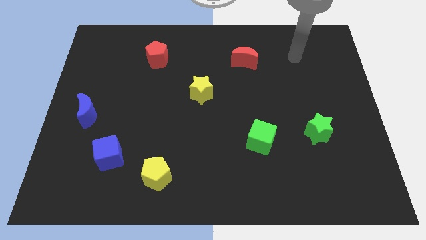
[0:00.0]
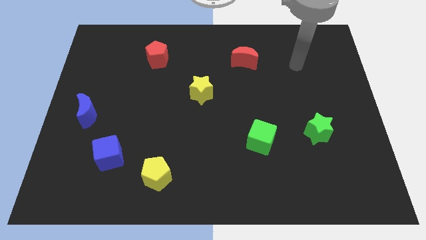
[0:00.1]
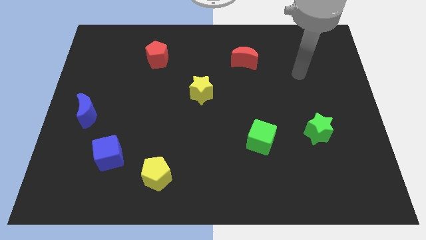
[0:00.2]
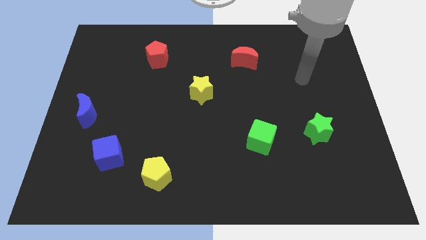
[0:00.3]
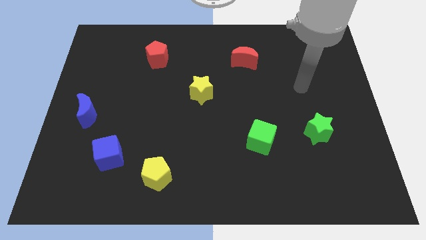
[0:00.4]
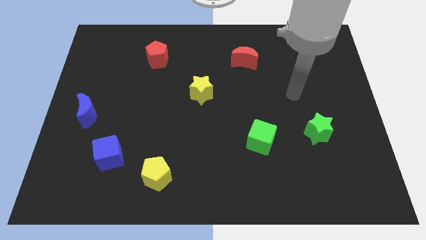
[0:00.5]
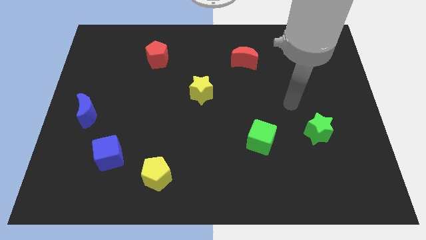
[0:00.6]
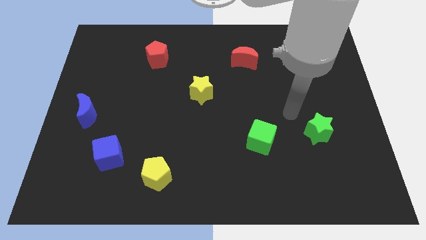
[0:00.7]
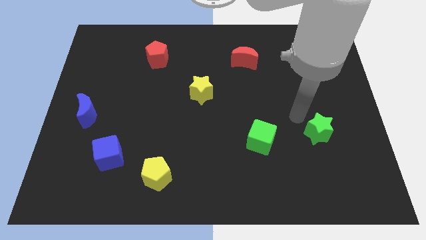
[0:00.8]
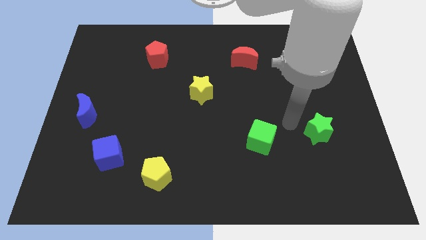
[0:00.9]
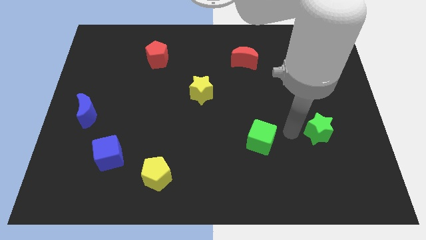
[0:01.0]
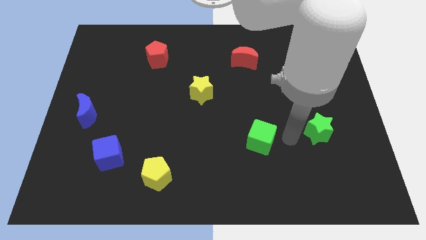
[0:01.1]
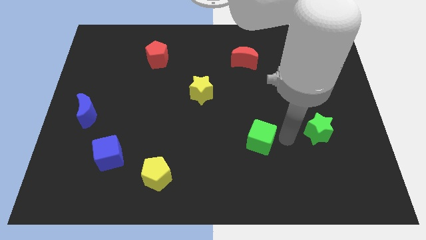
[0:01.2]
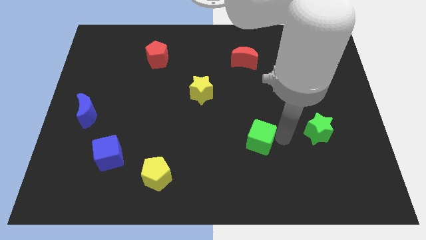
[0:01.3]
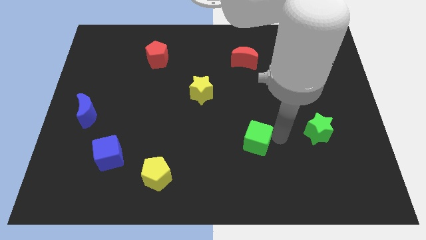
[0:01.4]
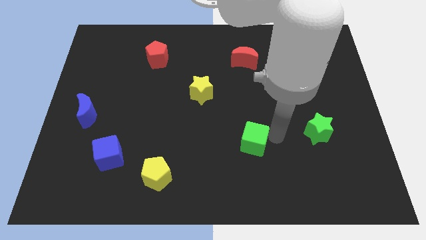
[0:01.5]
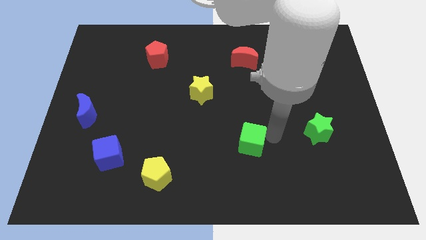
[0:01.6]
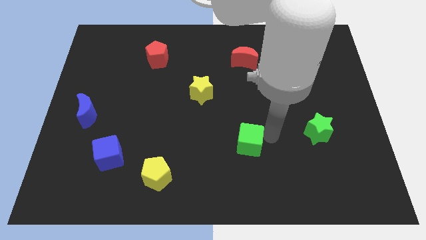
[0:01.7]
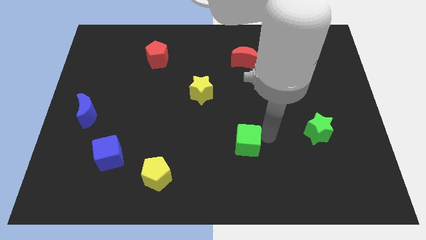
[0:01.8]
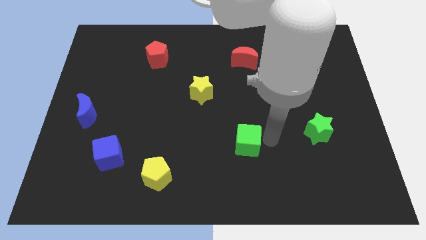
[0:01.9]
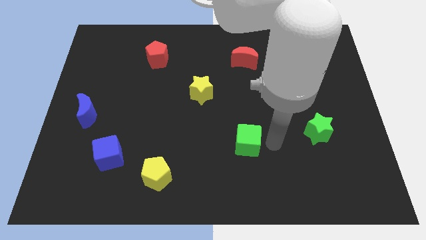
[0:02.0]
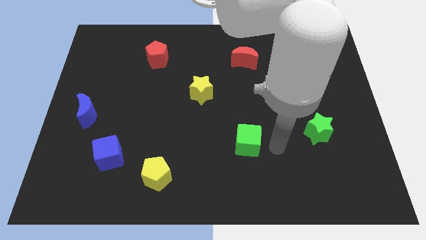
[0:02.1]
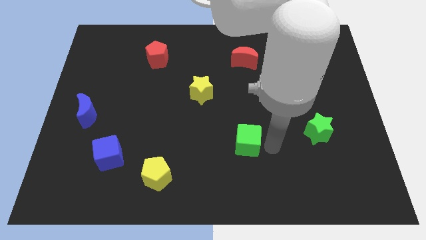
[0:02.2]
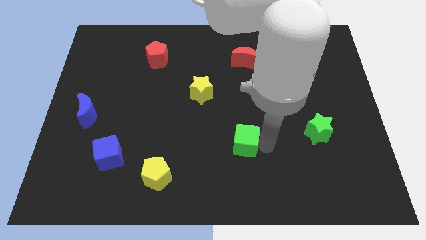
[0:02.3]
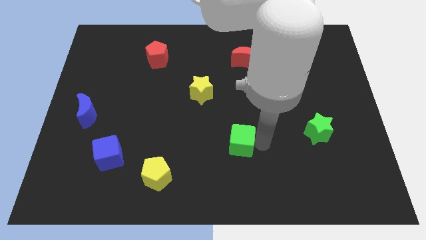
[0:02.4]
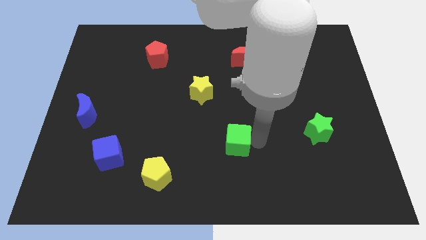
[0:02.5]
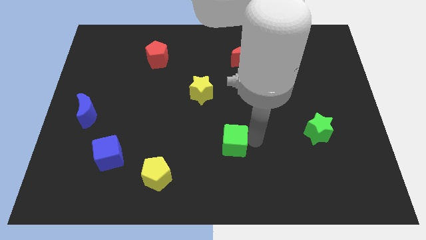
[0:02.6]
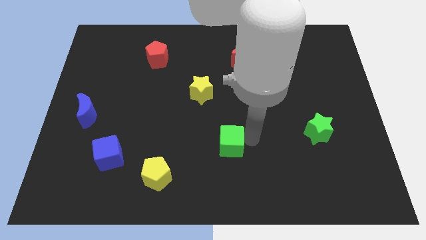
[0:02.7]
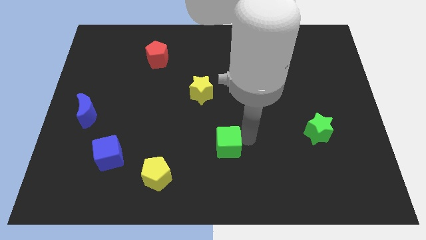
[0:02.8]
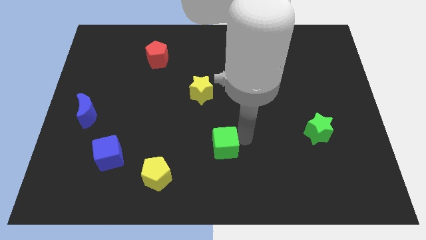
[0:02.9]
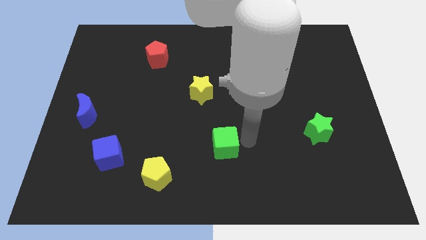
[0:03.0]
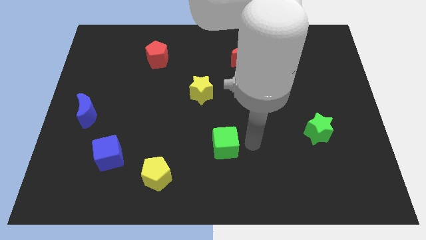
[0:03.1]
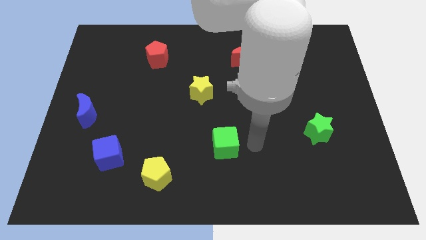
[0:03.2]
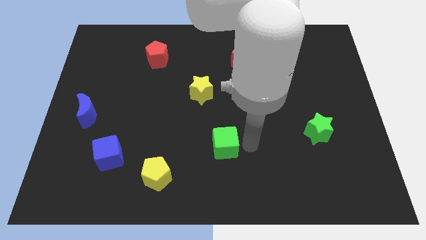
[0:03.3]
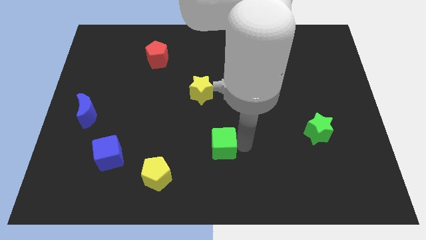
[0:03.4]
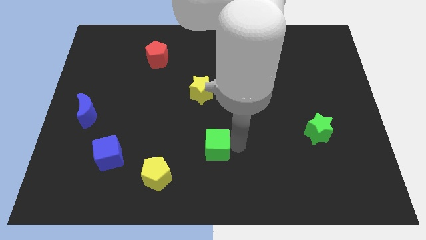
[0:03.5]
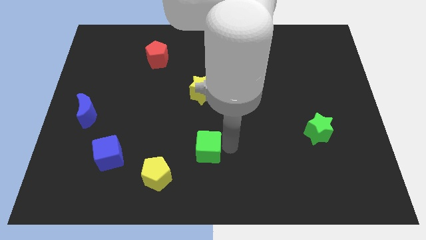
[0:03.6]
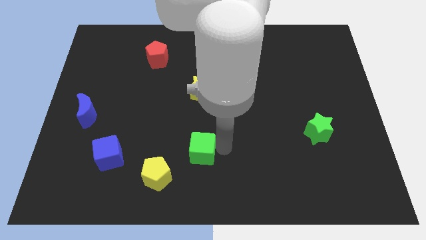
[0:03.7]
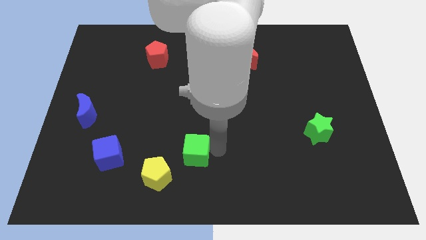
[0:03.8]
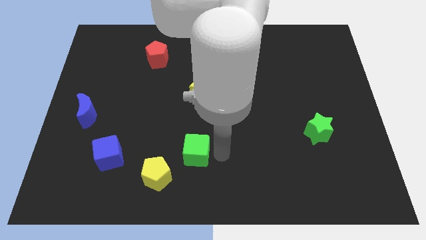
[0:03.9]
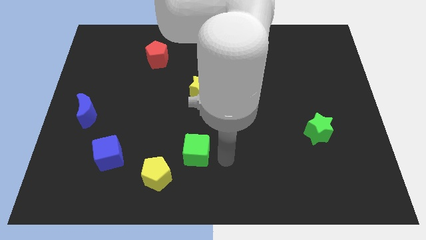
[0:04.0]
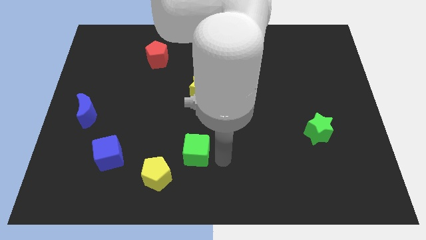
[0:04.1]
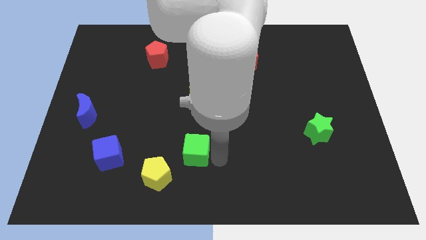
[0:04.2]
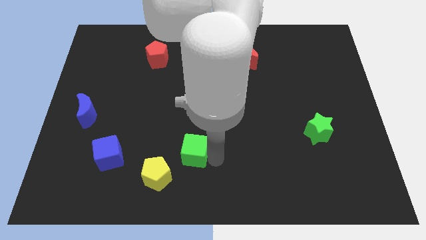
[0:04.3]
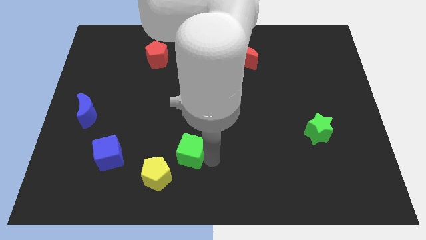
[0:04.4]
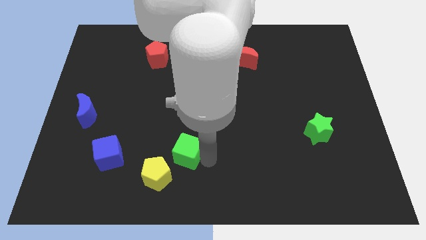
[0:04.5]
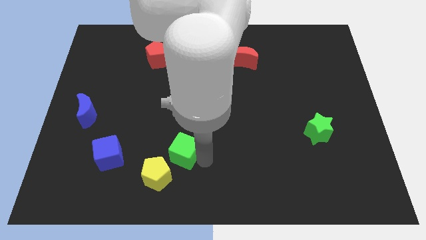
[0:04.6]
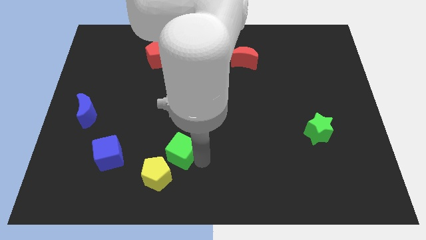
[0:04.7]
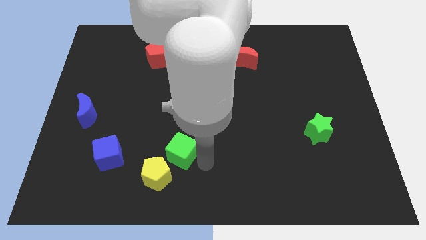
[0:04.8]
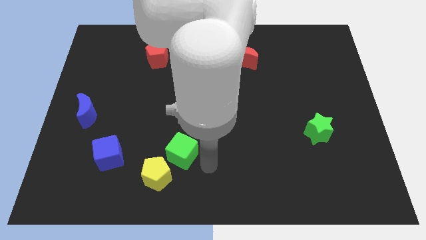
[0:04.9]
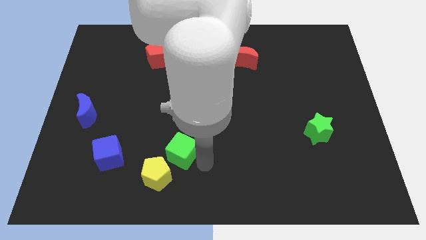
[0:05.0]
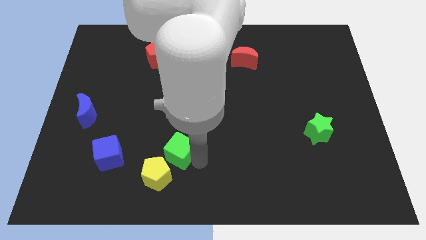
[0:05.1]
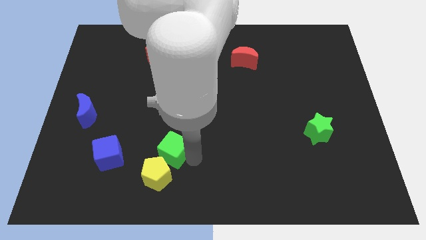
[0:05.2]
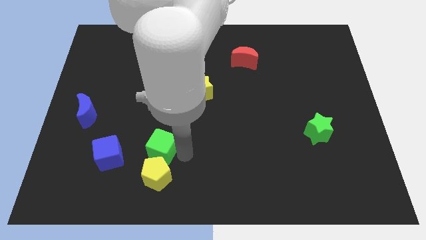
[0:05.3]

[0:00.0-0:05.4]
move the green cube to the left

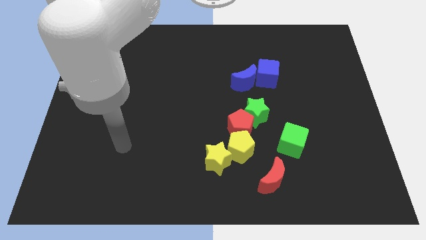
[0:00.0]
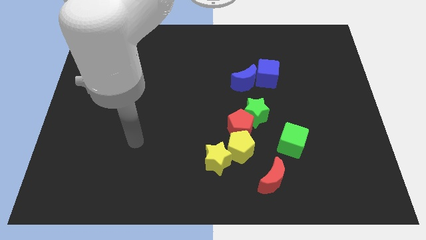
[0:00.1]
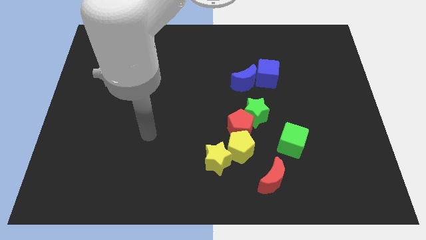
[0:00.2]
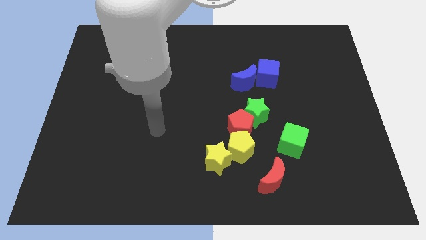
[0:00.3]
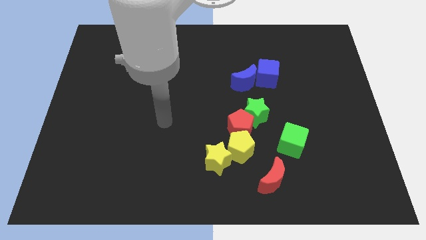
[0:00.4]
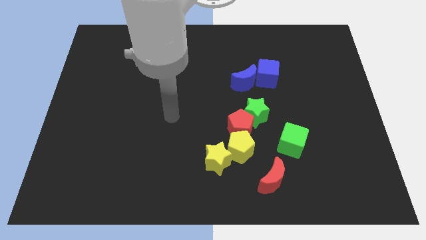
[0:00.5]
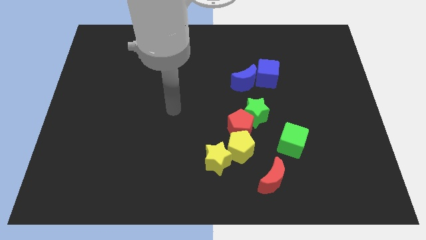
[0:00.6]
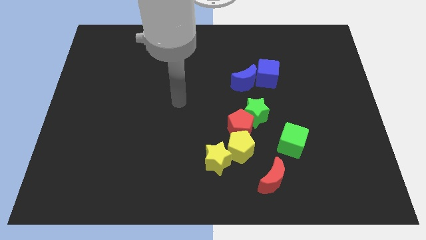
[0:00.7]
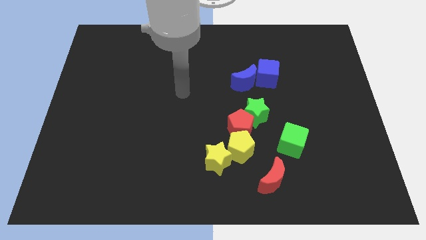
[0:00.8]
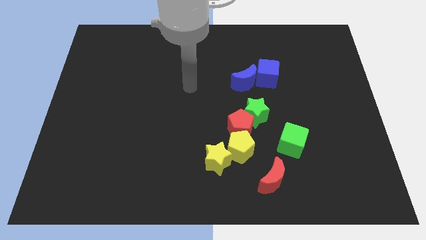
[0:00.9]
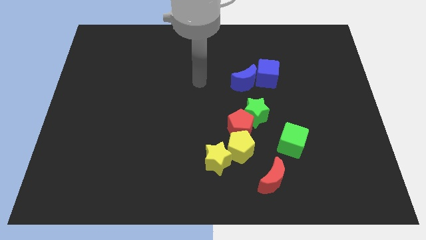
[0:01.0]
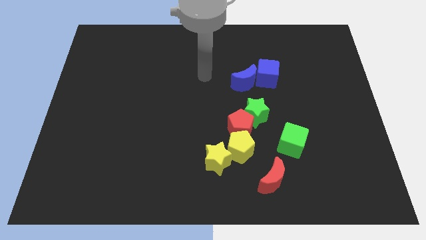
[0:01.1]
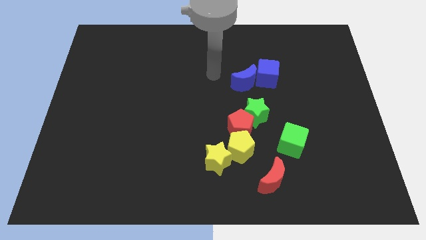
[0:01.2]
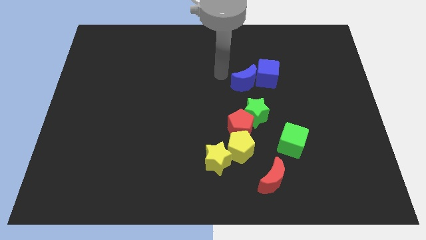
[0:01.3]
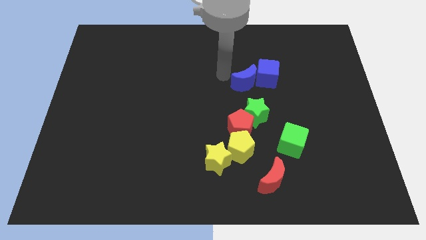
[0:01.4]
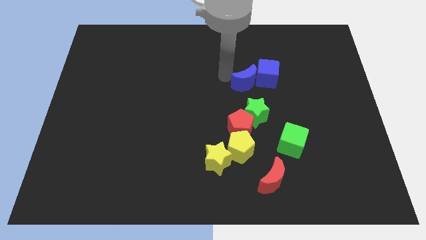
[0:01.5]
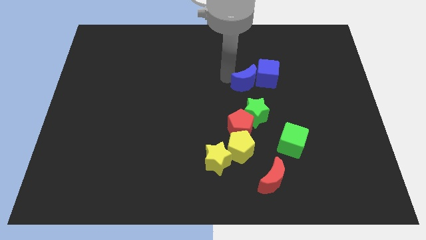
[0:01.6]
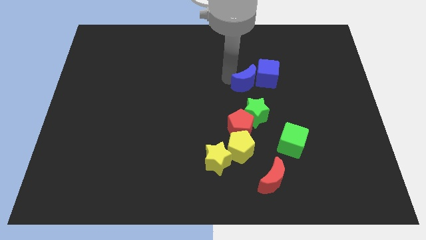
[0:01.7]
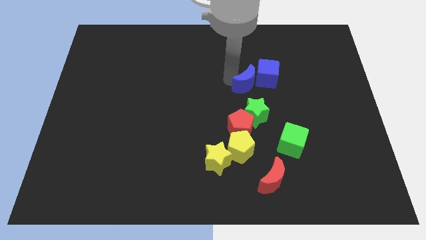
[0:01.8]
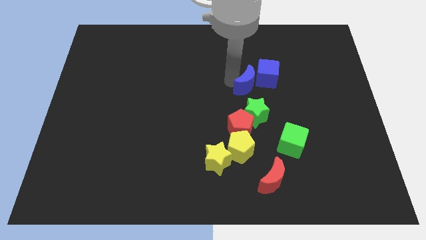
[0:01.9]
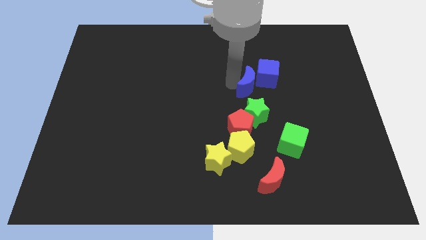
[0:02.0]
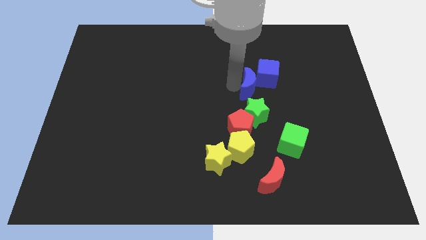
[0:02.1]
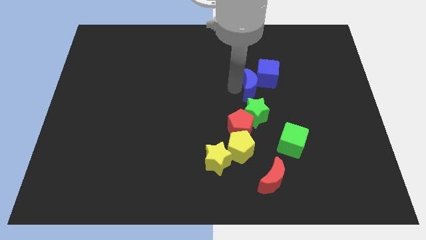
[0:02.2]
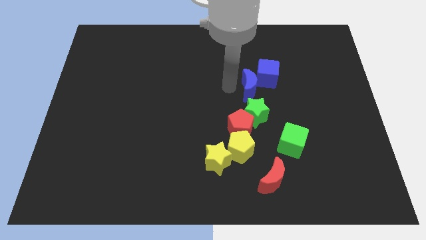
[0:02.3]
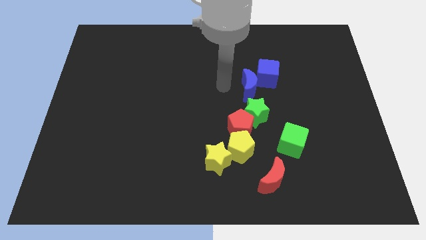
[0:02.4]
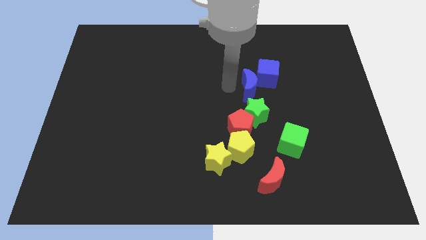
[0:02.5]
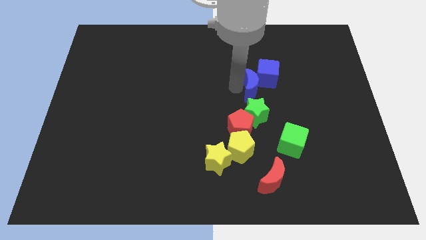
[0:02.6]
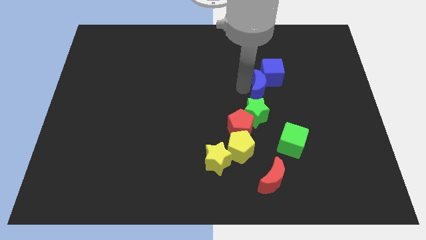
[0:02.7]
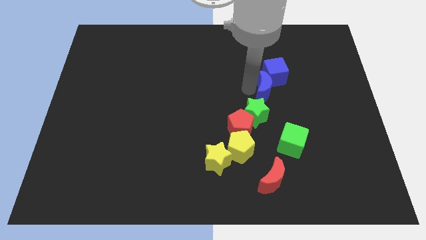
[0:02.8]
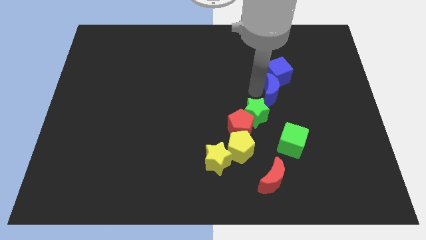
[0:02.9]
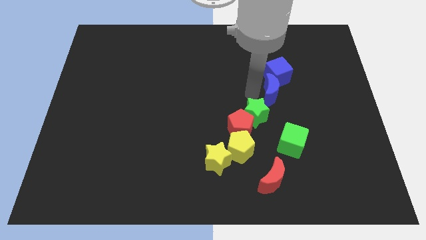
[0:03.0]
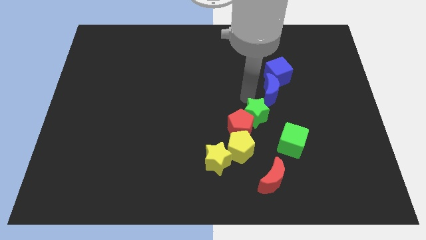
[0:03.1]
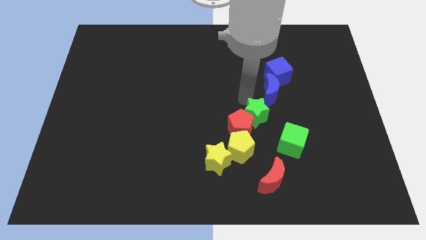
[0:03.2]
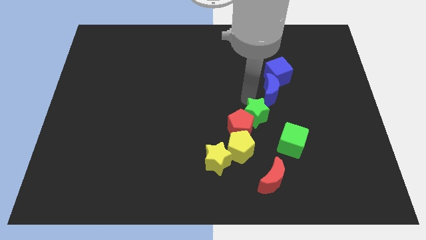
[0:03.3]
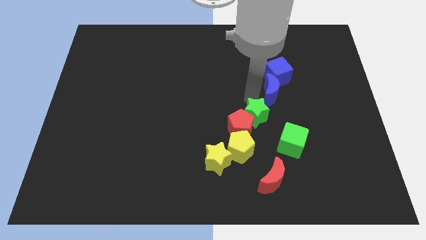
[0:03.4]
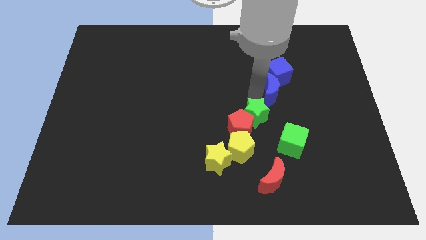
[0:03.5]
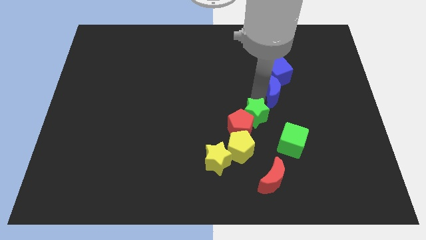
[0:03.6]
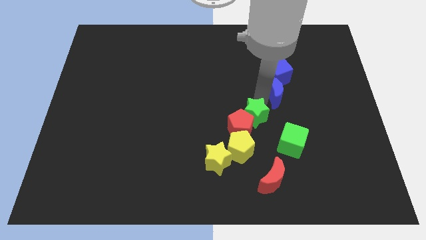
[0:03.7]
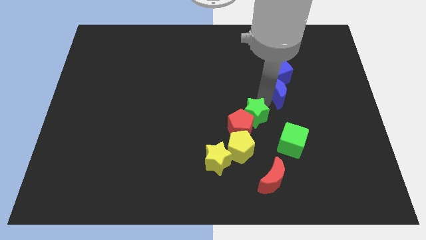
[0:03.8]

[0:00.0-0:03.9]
push the blue moon a little right
